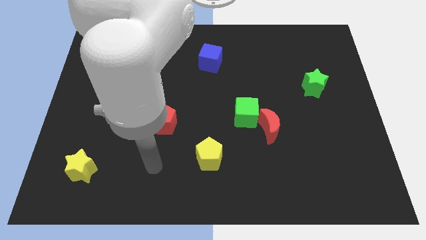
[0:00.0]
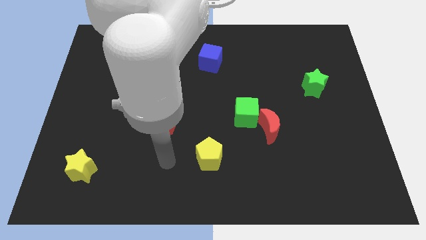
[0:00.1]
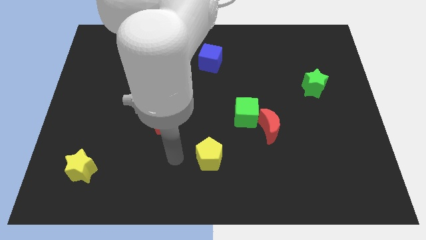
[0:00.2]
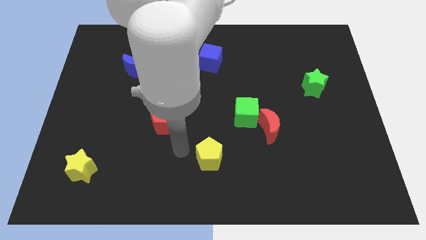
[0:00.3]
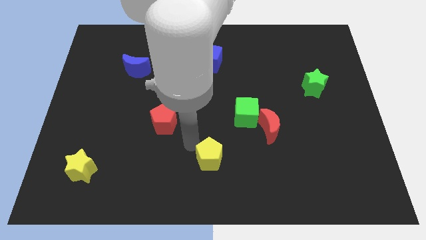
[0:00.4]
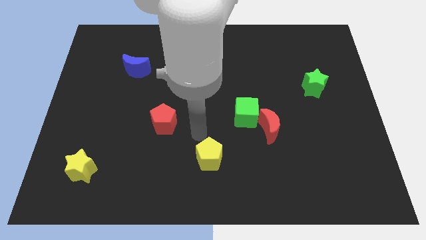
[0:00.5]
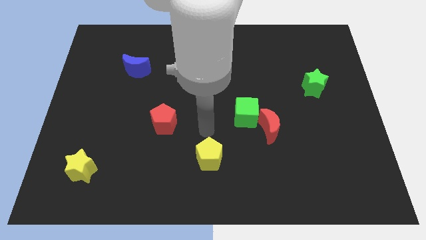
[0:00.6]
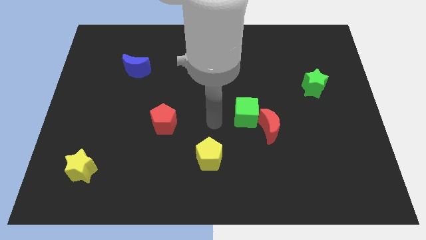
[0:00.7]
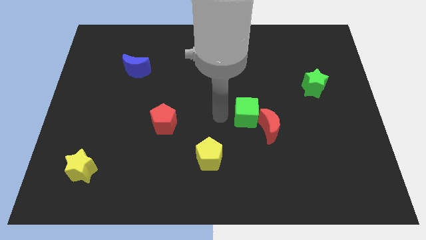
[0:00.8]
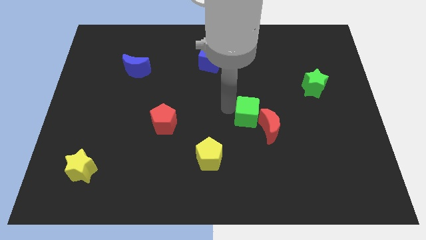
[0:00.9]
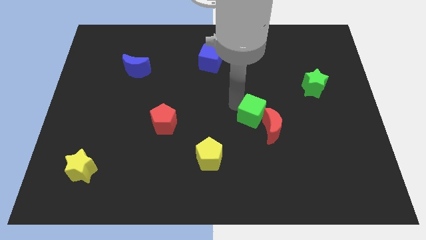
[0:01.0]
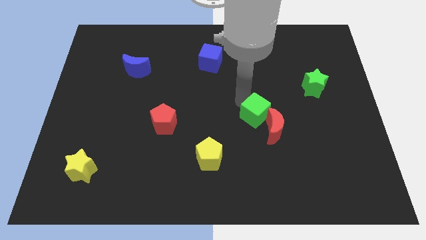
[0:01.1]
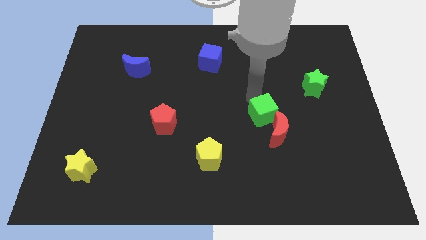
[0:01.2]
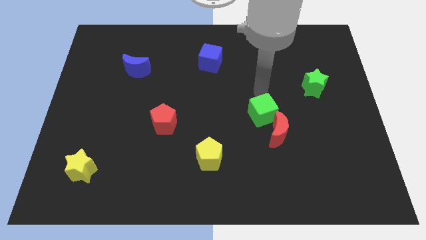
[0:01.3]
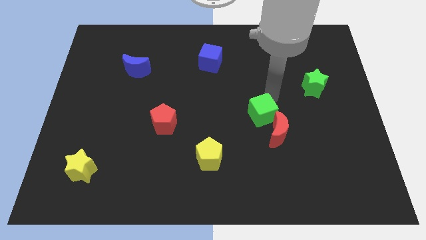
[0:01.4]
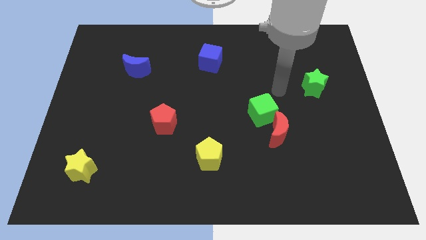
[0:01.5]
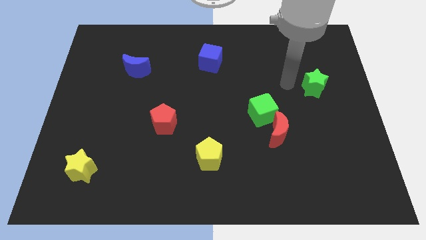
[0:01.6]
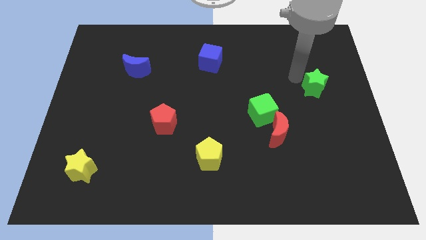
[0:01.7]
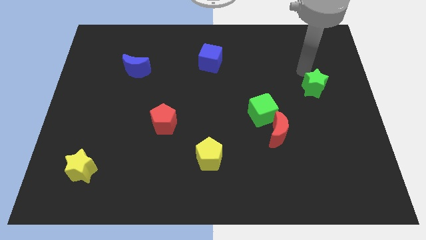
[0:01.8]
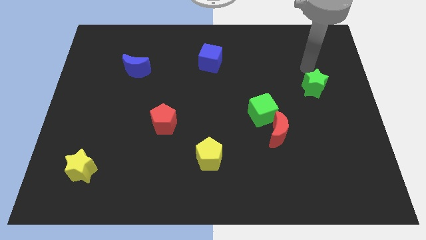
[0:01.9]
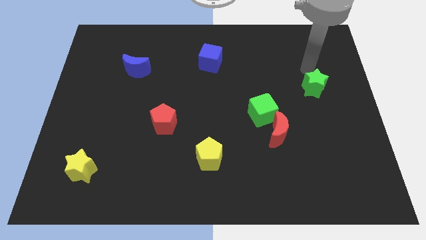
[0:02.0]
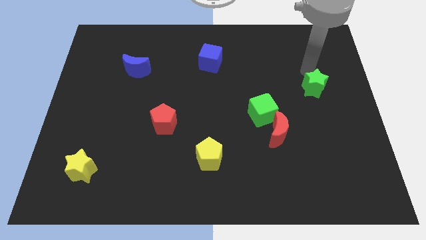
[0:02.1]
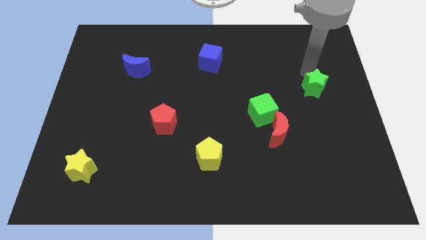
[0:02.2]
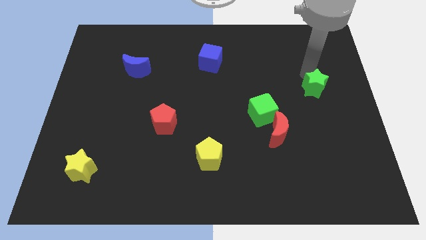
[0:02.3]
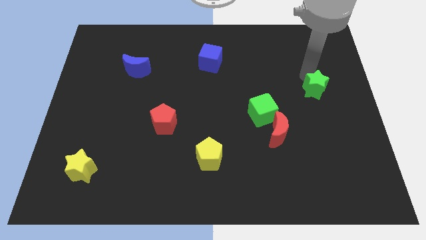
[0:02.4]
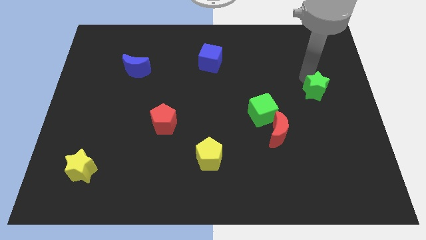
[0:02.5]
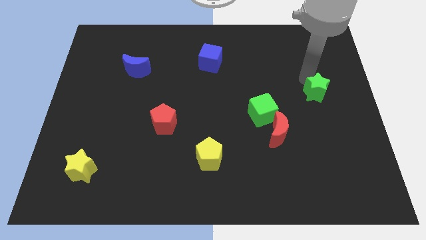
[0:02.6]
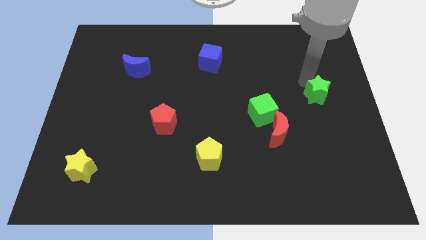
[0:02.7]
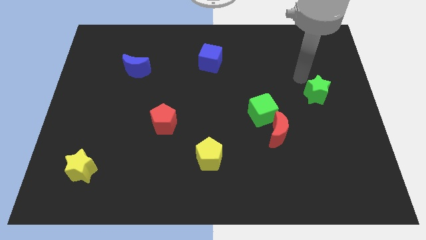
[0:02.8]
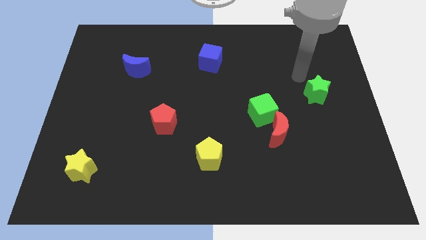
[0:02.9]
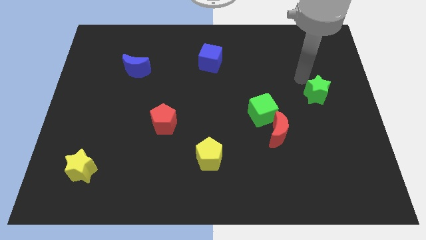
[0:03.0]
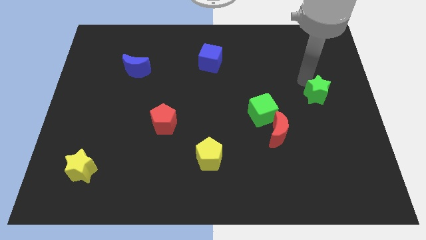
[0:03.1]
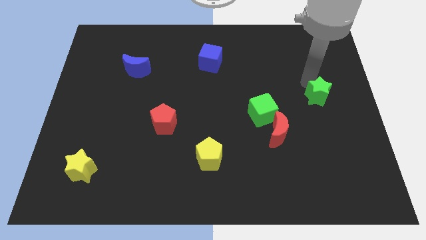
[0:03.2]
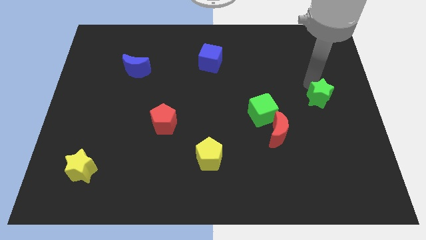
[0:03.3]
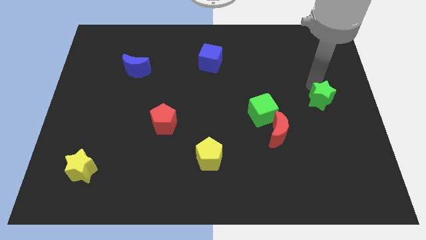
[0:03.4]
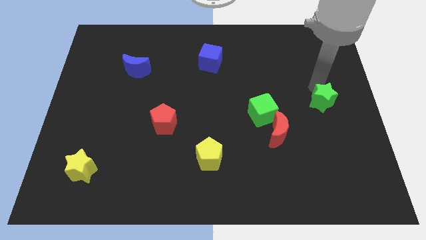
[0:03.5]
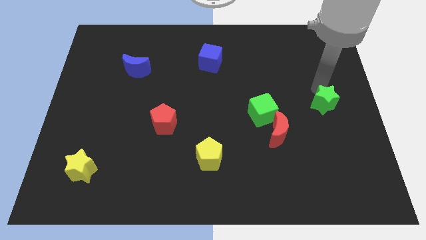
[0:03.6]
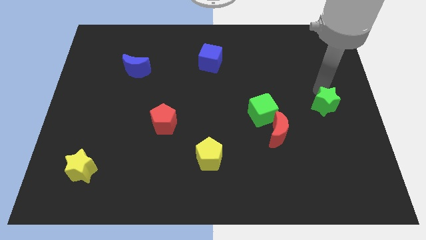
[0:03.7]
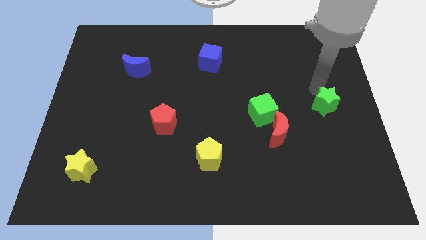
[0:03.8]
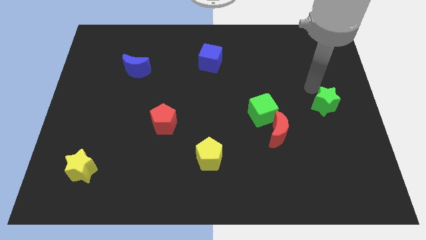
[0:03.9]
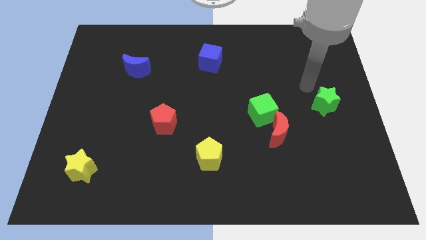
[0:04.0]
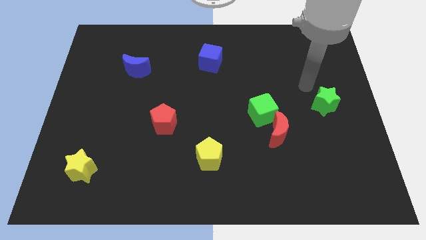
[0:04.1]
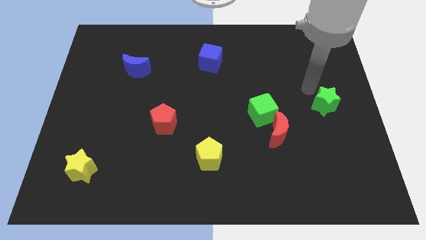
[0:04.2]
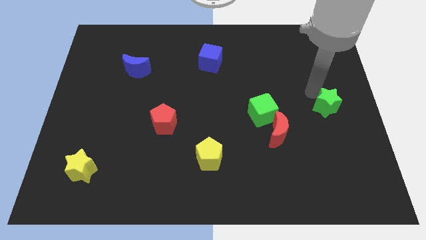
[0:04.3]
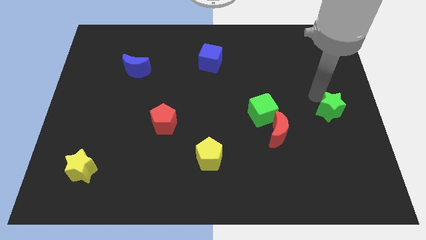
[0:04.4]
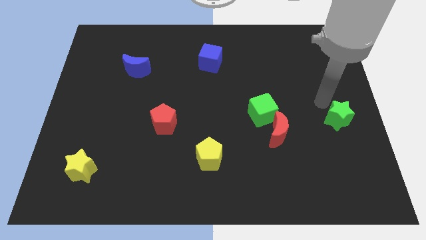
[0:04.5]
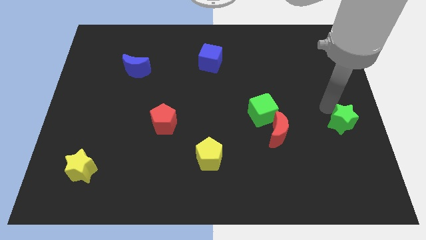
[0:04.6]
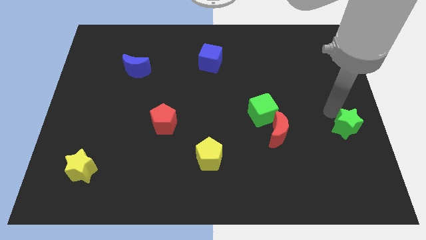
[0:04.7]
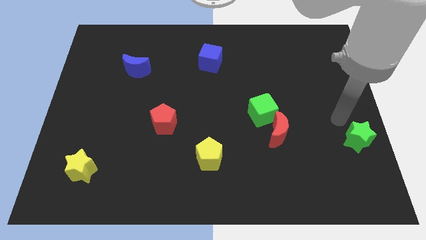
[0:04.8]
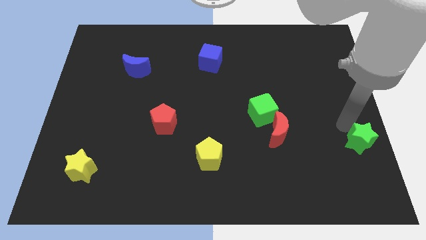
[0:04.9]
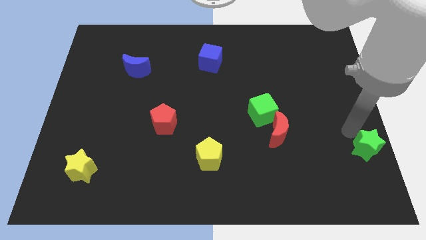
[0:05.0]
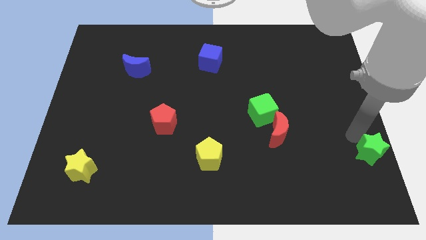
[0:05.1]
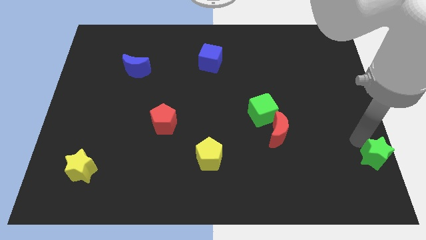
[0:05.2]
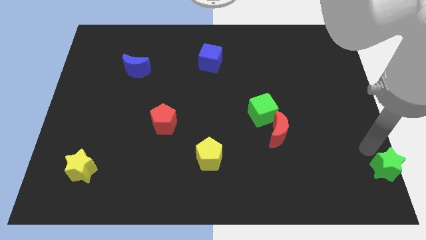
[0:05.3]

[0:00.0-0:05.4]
push the green star to the bottom right corner

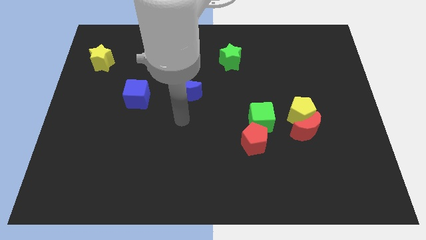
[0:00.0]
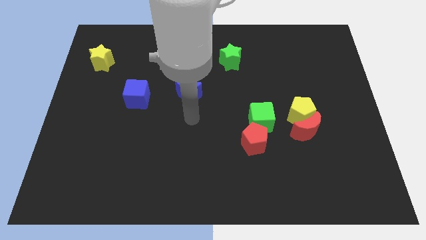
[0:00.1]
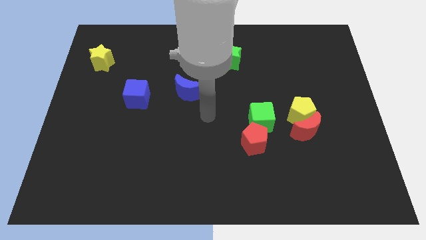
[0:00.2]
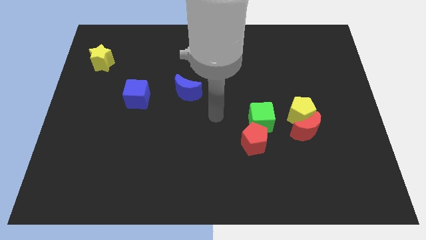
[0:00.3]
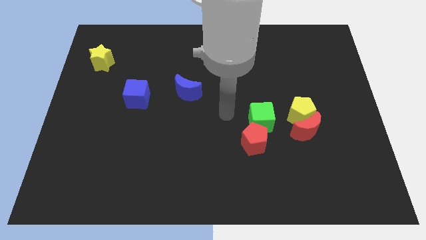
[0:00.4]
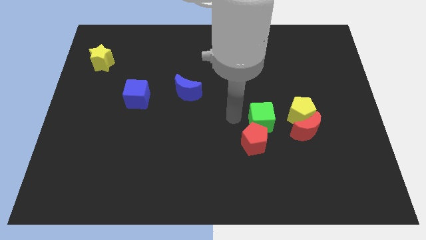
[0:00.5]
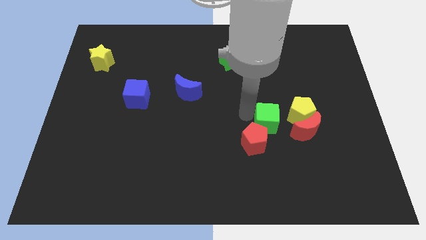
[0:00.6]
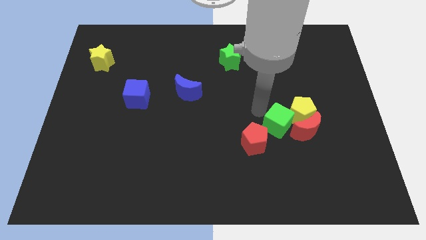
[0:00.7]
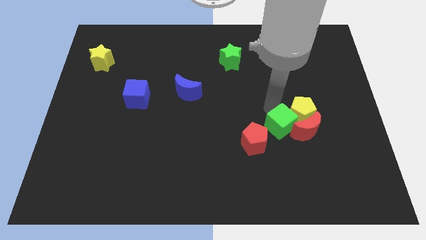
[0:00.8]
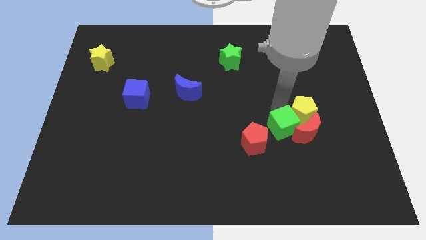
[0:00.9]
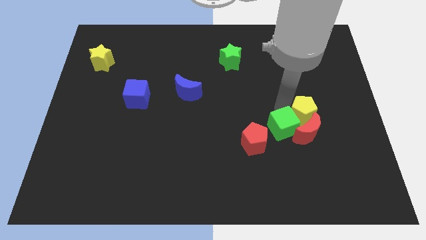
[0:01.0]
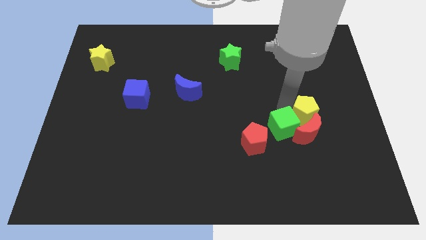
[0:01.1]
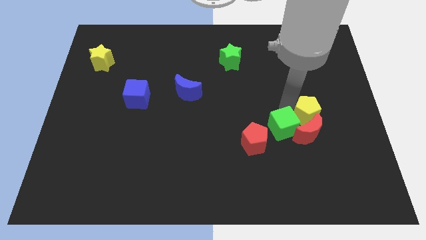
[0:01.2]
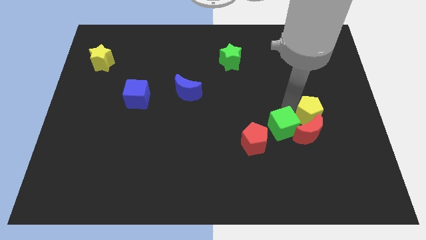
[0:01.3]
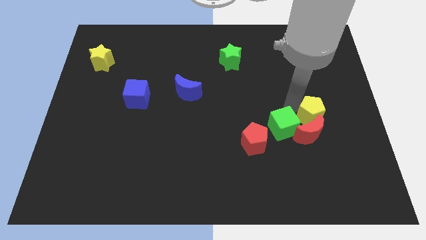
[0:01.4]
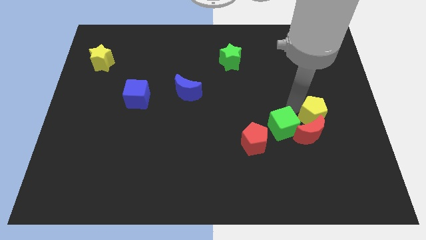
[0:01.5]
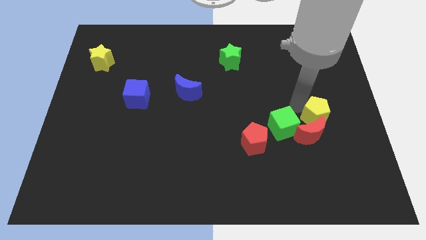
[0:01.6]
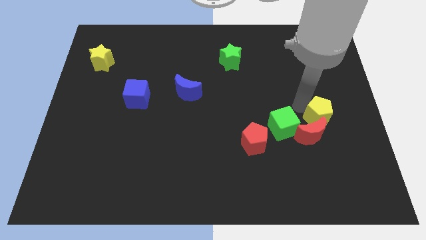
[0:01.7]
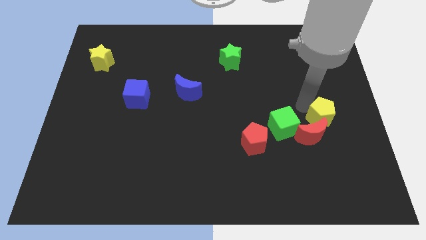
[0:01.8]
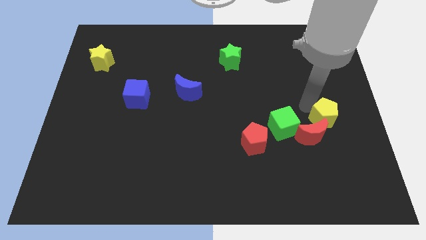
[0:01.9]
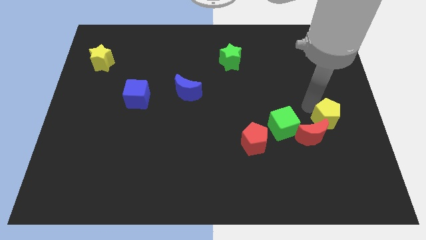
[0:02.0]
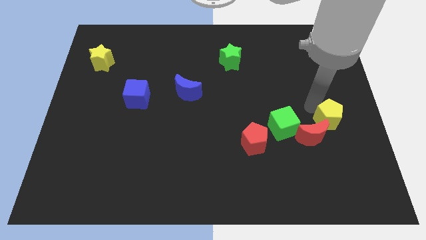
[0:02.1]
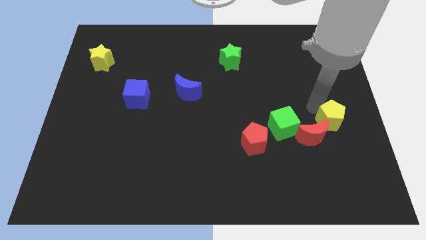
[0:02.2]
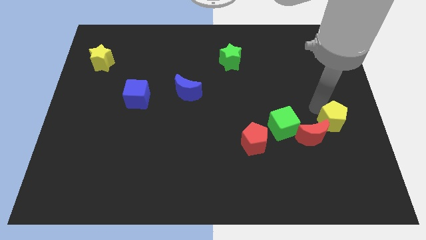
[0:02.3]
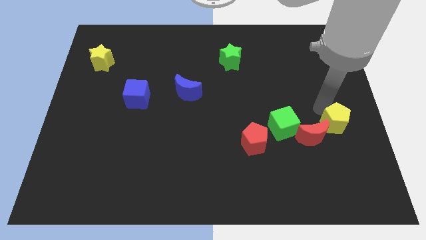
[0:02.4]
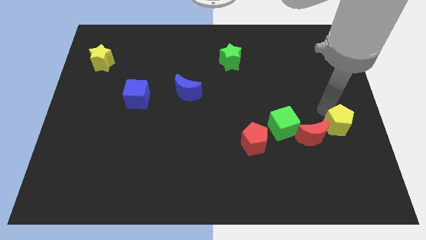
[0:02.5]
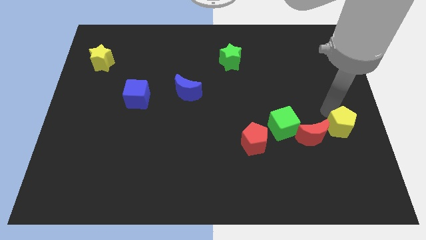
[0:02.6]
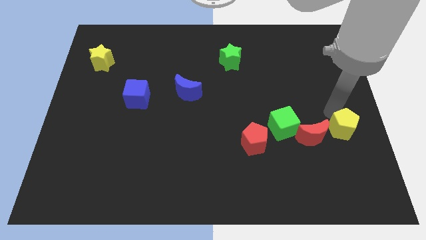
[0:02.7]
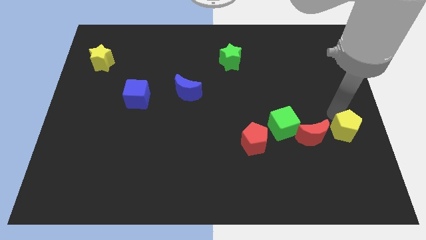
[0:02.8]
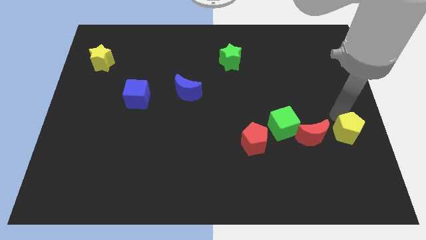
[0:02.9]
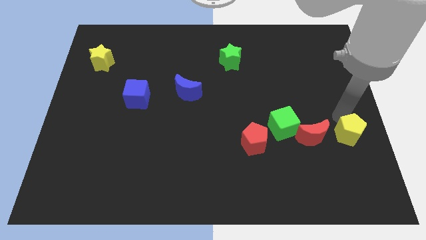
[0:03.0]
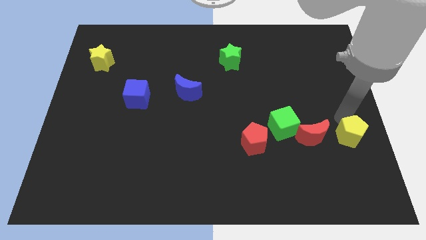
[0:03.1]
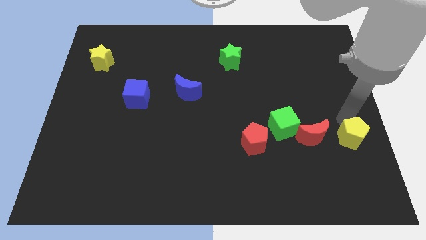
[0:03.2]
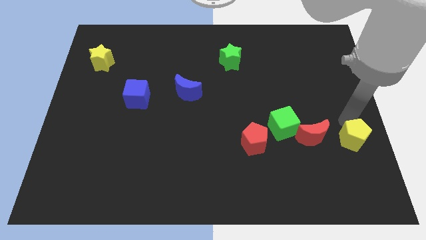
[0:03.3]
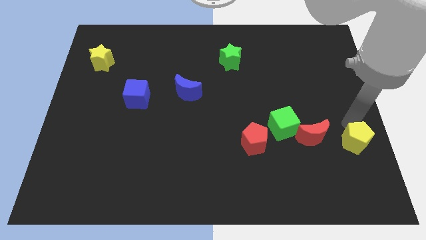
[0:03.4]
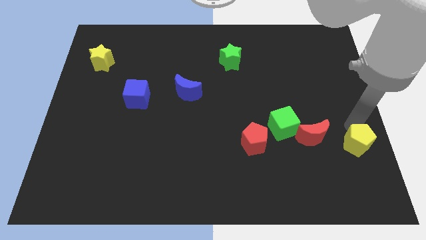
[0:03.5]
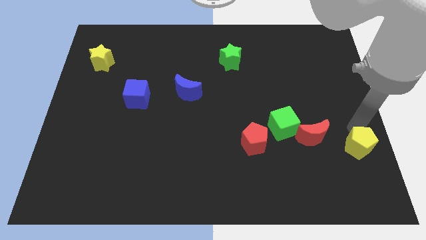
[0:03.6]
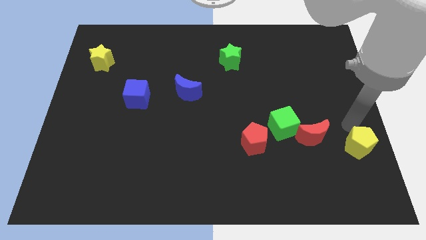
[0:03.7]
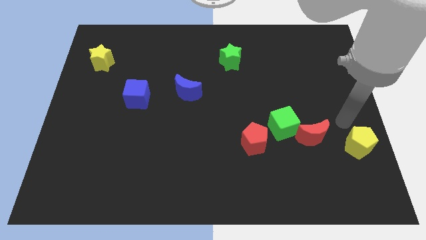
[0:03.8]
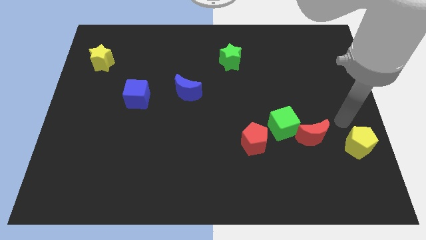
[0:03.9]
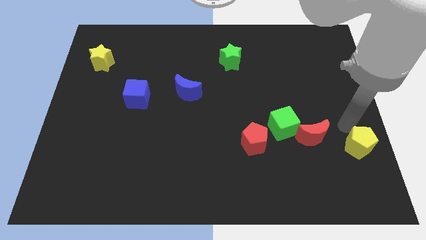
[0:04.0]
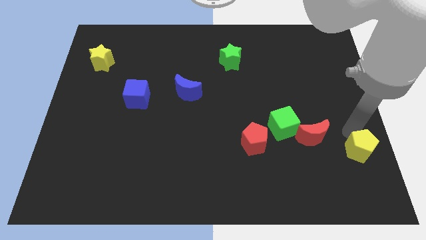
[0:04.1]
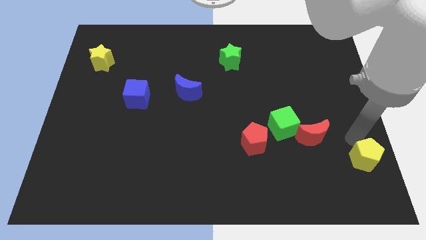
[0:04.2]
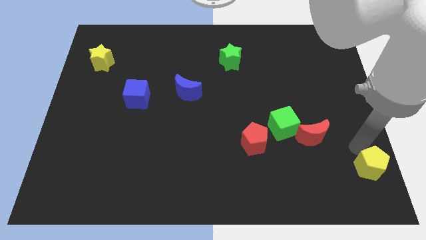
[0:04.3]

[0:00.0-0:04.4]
move the yellow pentagon to the bottom right corner
